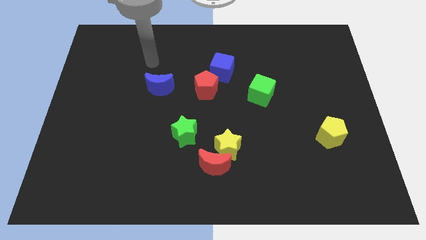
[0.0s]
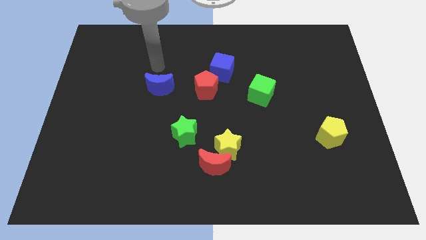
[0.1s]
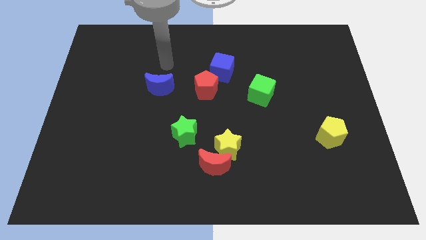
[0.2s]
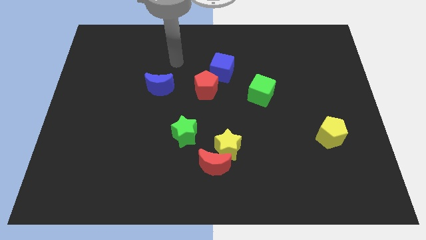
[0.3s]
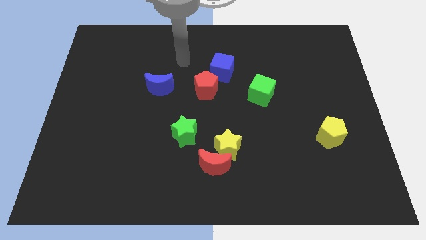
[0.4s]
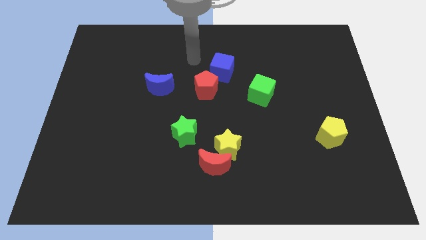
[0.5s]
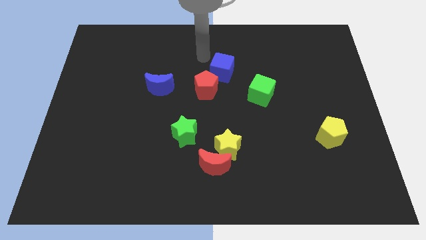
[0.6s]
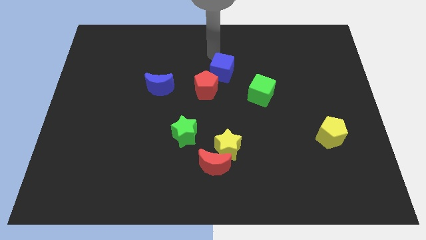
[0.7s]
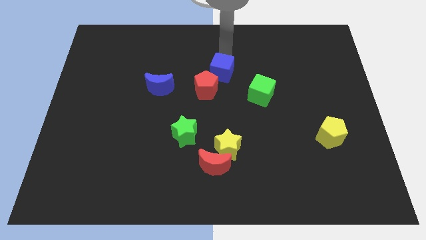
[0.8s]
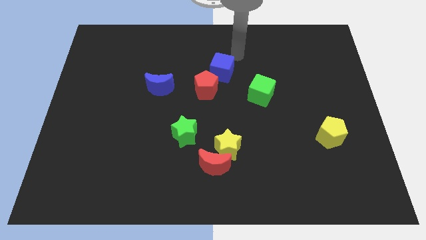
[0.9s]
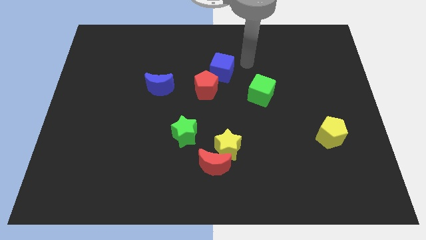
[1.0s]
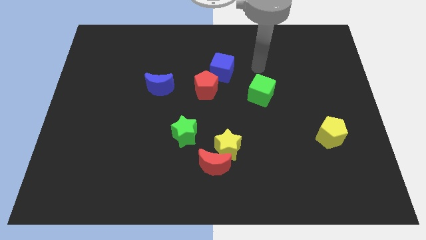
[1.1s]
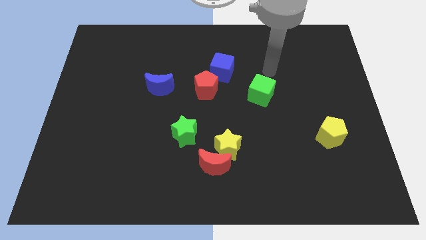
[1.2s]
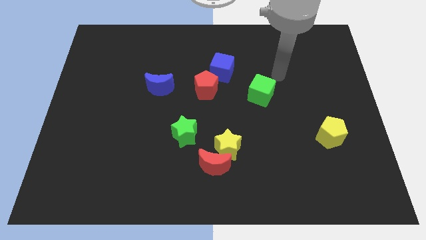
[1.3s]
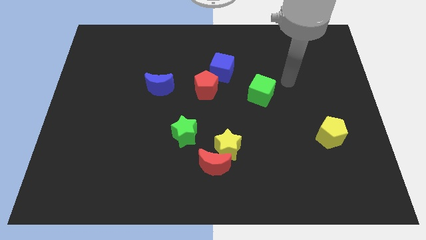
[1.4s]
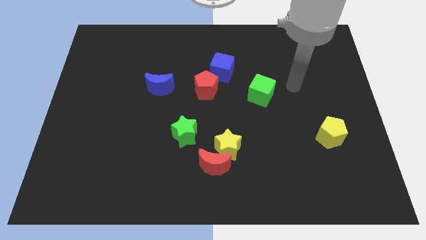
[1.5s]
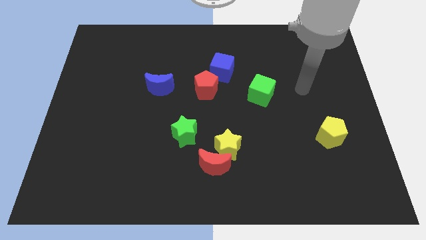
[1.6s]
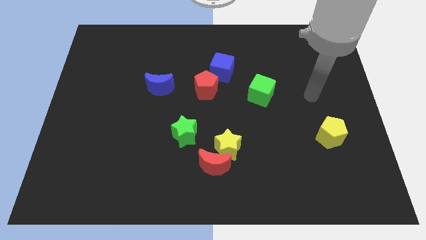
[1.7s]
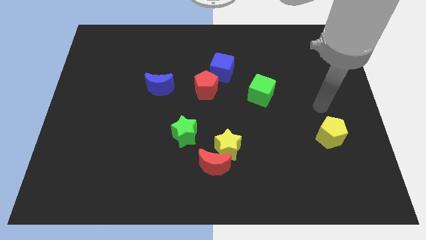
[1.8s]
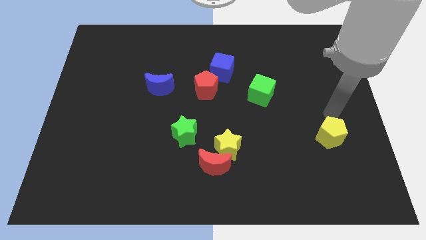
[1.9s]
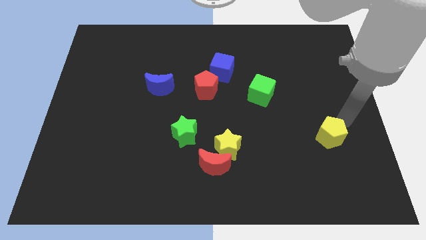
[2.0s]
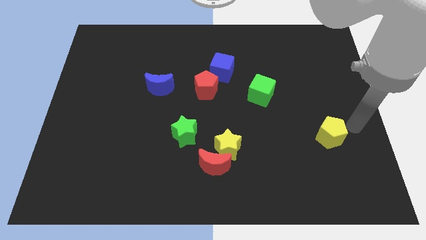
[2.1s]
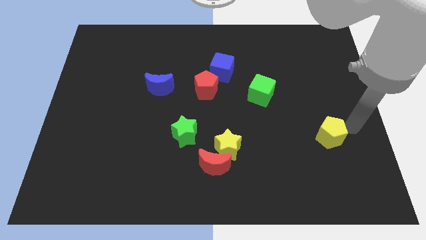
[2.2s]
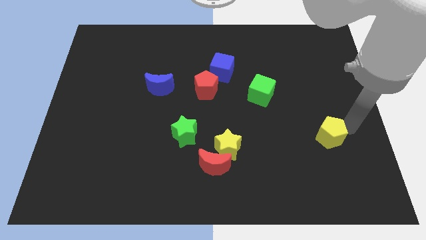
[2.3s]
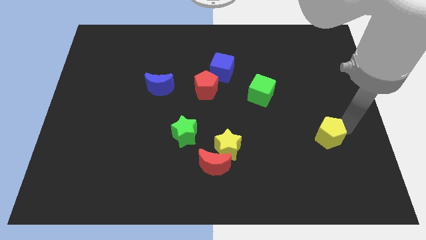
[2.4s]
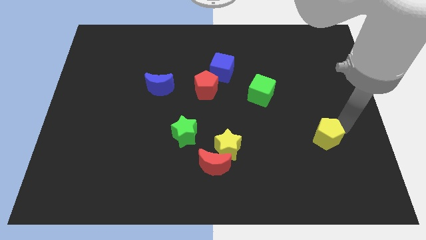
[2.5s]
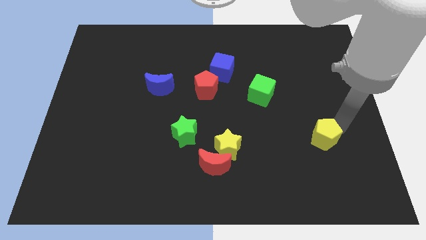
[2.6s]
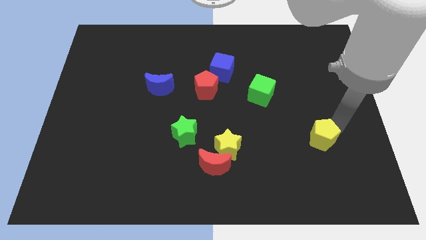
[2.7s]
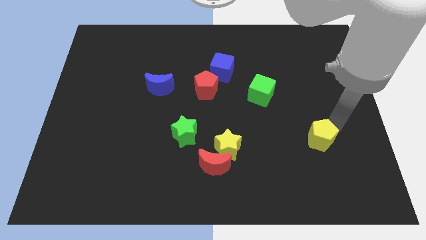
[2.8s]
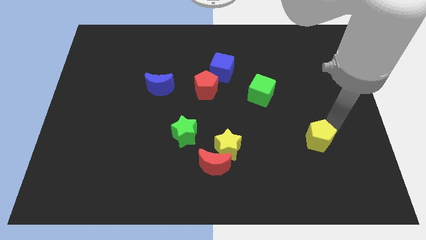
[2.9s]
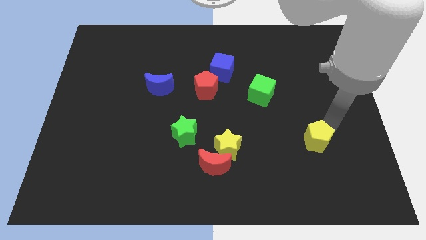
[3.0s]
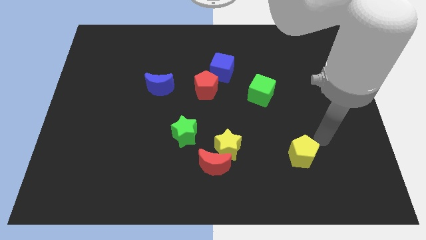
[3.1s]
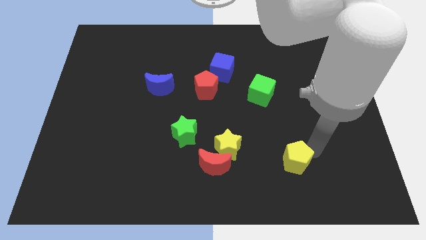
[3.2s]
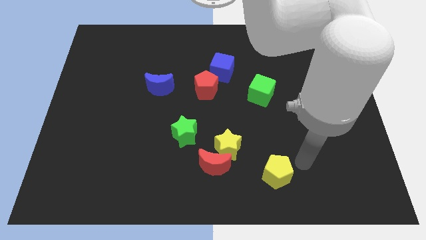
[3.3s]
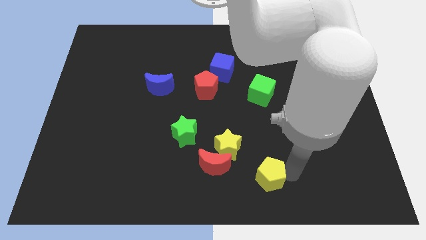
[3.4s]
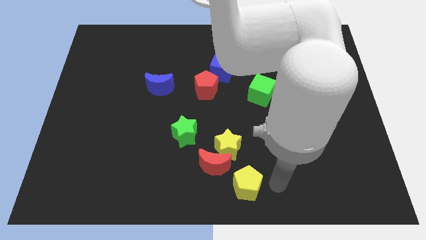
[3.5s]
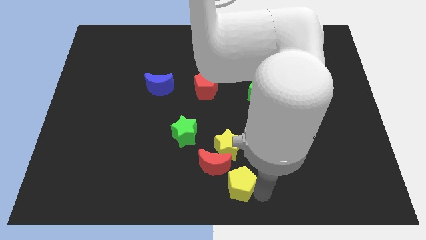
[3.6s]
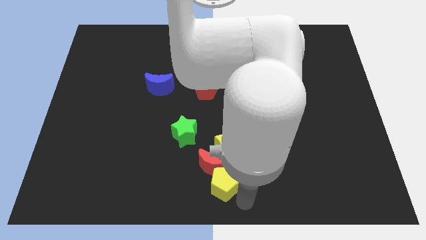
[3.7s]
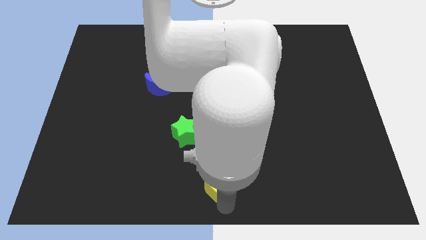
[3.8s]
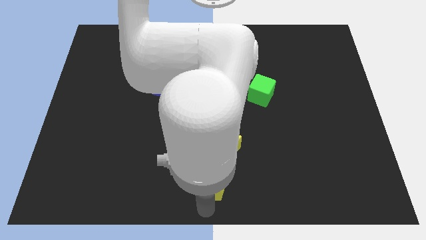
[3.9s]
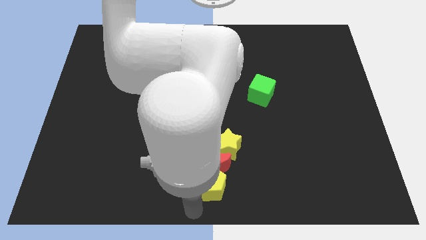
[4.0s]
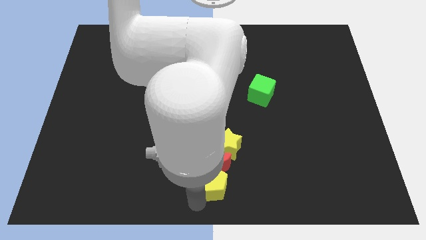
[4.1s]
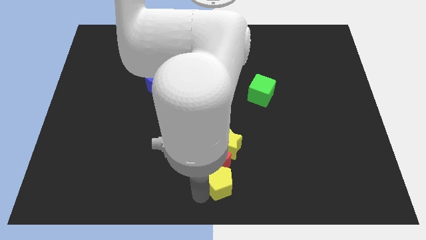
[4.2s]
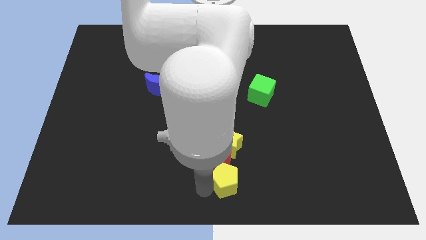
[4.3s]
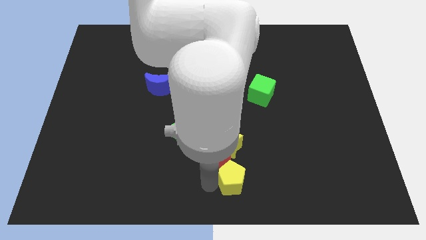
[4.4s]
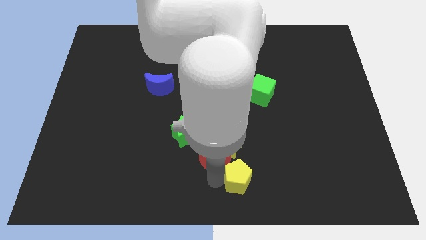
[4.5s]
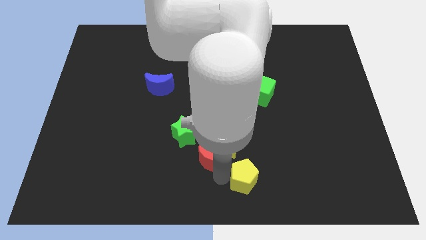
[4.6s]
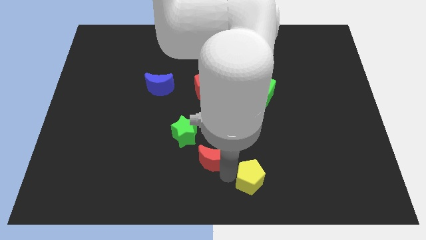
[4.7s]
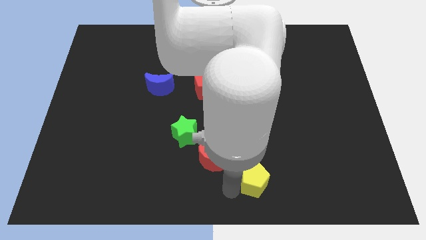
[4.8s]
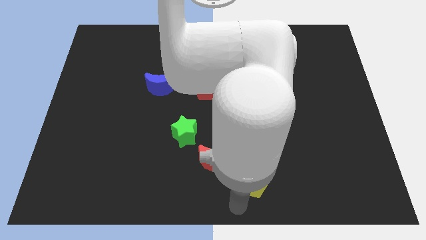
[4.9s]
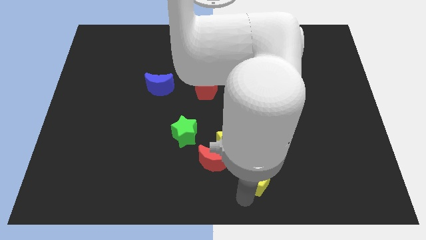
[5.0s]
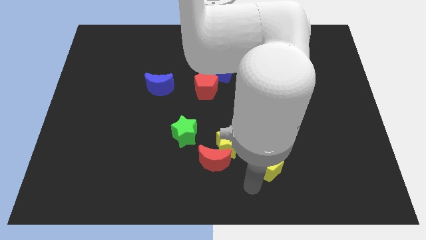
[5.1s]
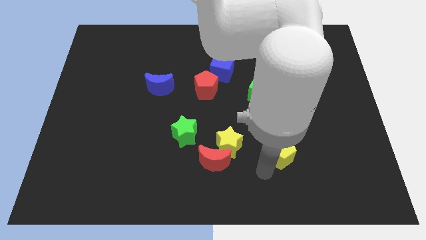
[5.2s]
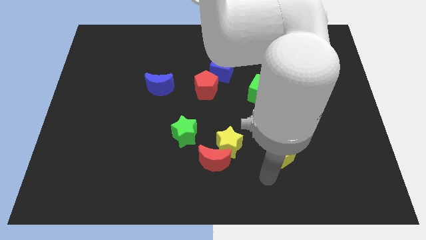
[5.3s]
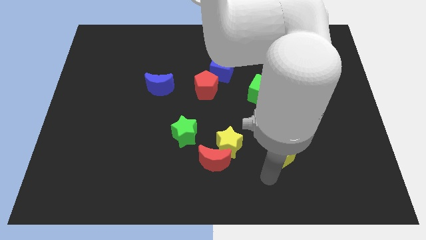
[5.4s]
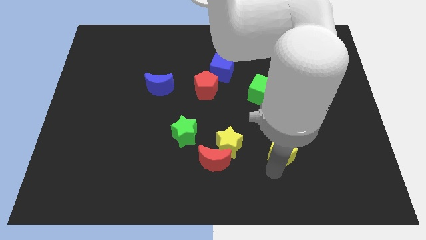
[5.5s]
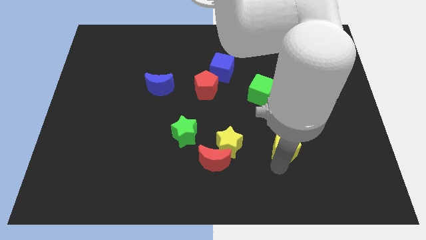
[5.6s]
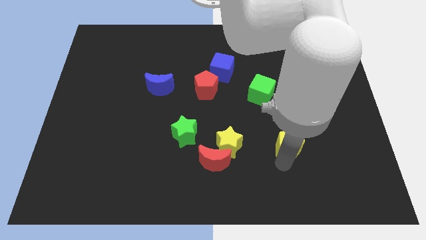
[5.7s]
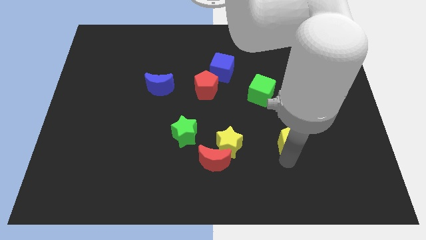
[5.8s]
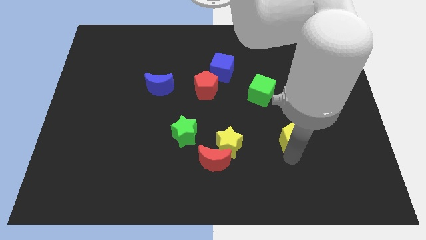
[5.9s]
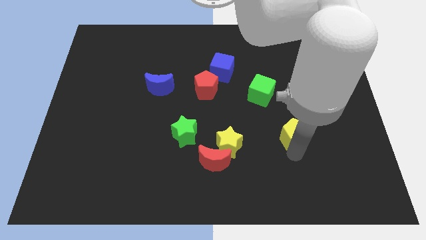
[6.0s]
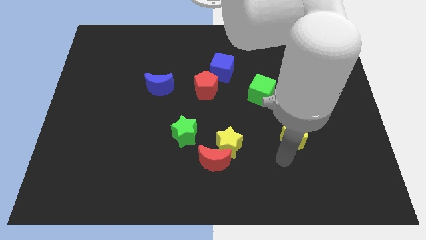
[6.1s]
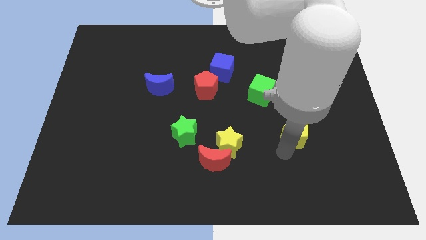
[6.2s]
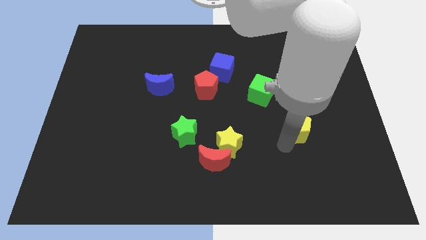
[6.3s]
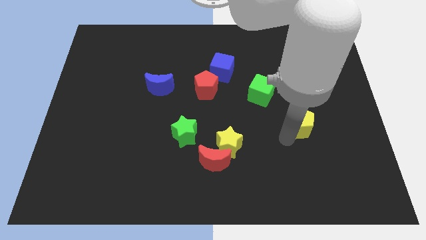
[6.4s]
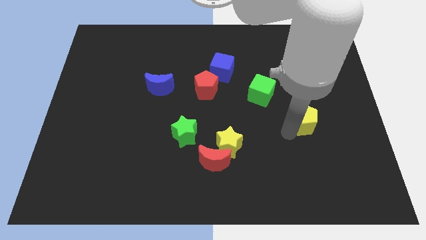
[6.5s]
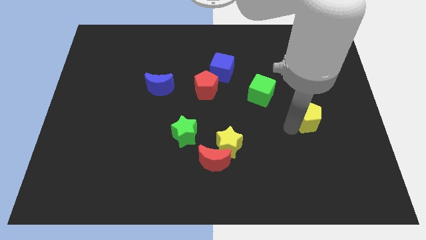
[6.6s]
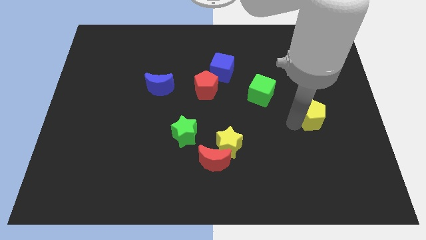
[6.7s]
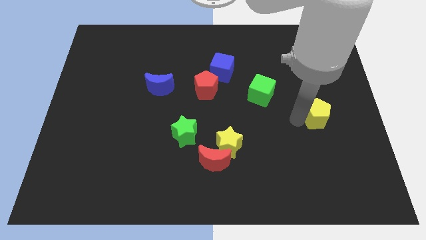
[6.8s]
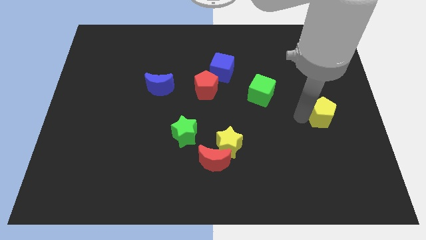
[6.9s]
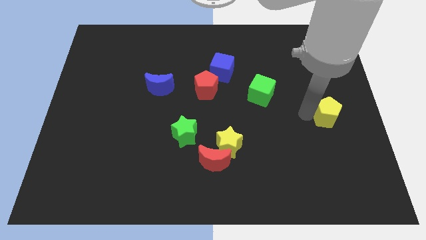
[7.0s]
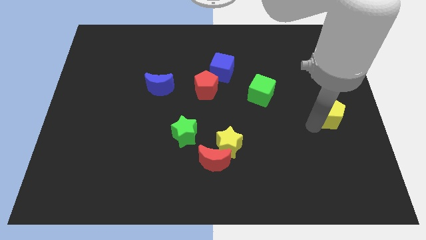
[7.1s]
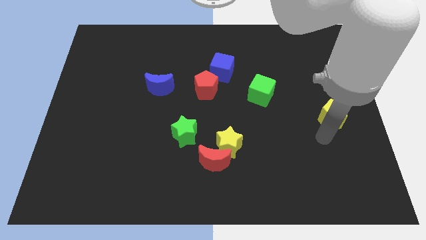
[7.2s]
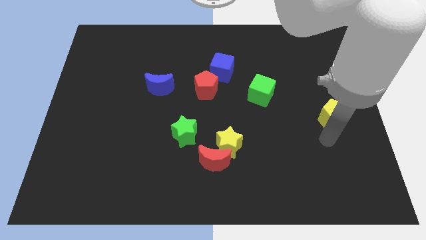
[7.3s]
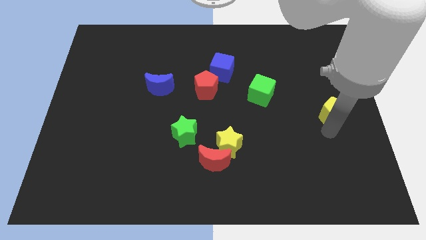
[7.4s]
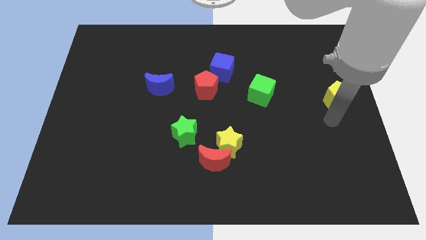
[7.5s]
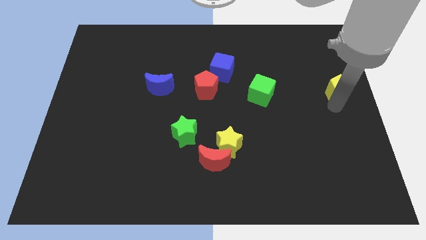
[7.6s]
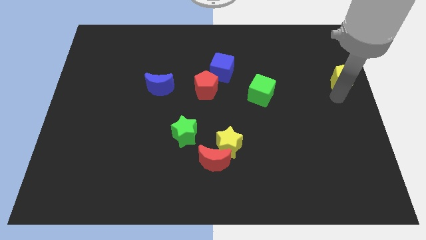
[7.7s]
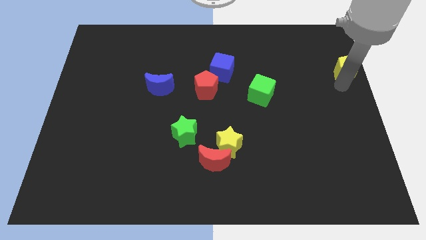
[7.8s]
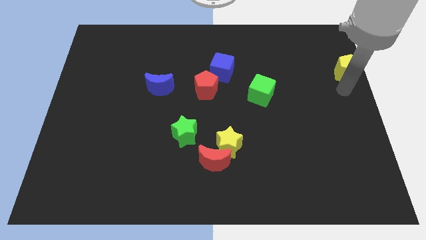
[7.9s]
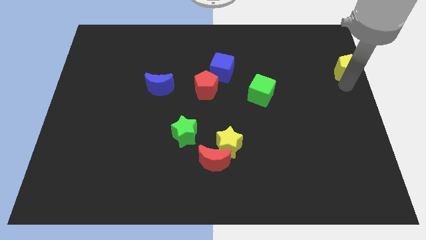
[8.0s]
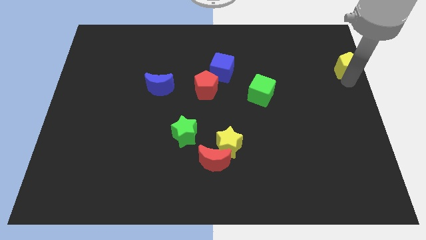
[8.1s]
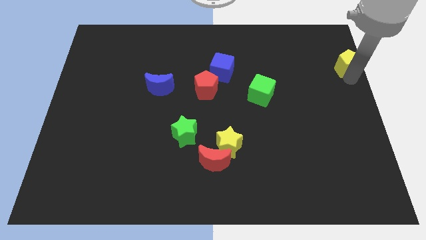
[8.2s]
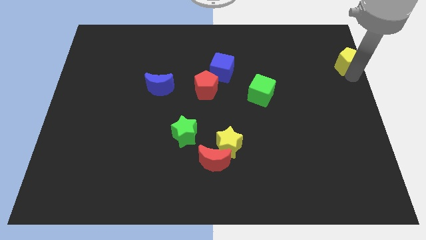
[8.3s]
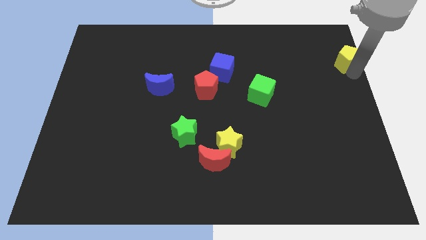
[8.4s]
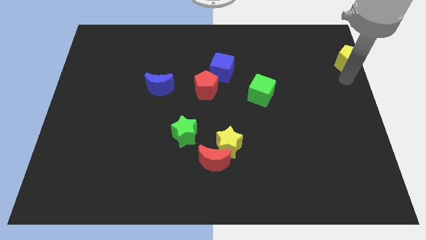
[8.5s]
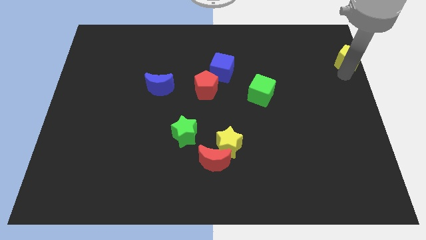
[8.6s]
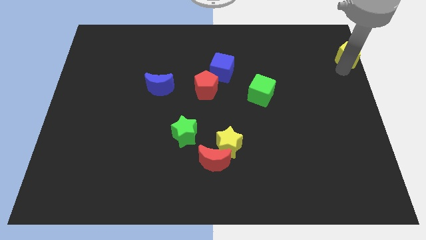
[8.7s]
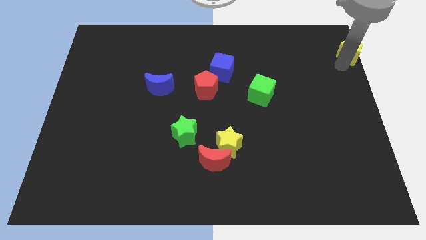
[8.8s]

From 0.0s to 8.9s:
put the yellow pentagon to the upper right corner
